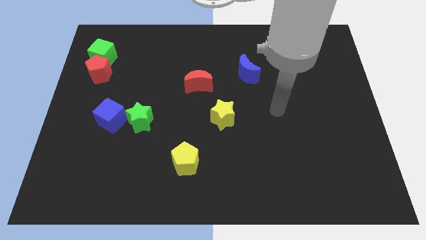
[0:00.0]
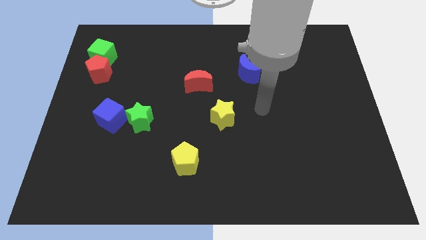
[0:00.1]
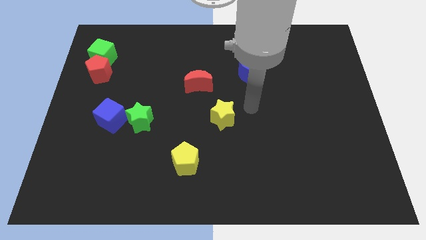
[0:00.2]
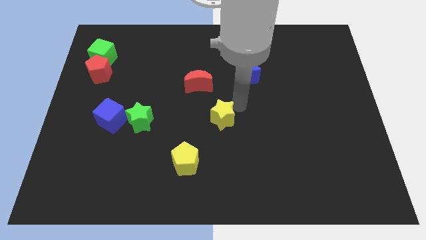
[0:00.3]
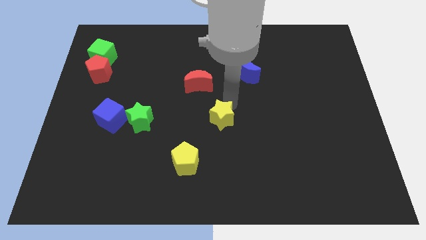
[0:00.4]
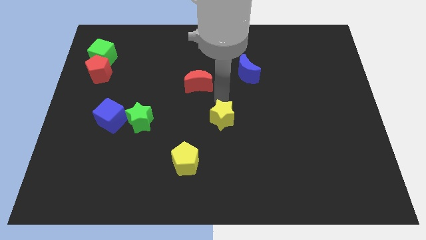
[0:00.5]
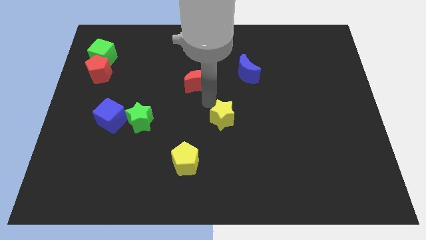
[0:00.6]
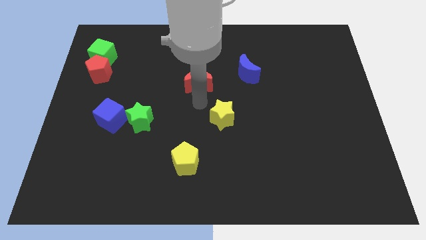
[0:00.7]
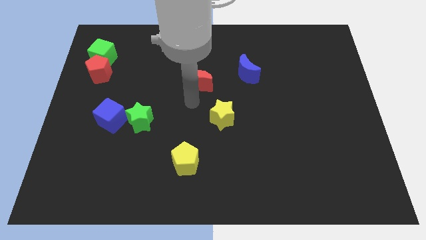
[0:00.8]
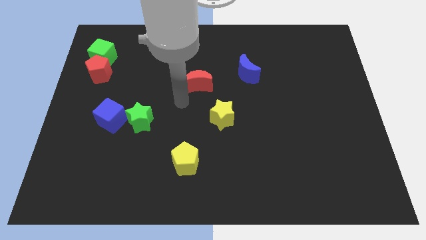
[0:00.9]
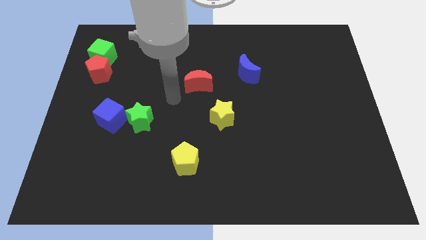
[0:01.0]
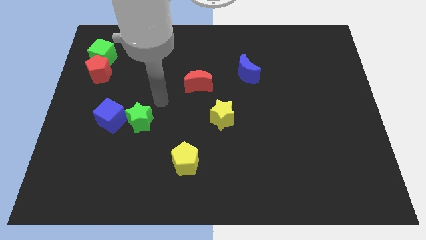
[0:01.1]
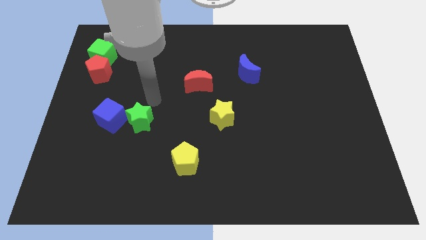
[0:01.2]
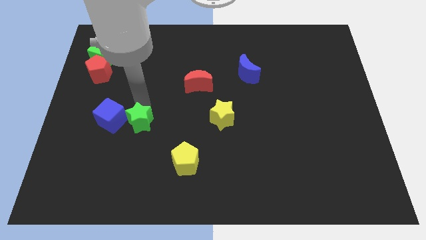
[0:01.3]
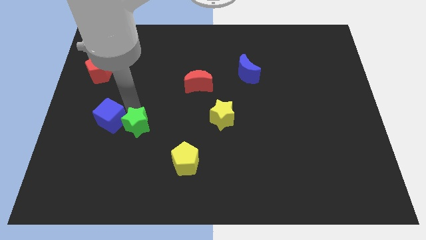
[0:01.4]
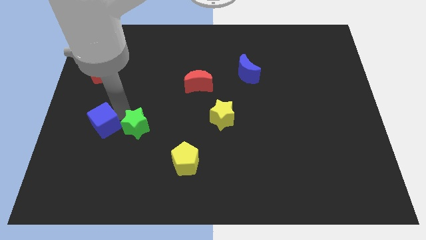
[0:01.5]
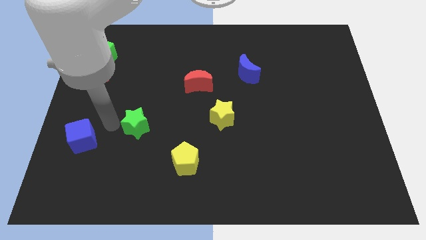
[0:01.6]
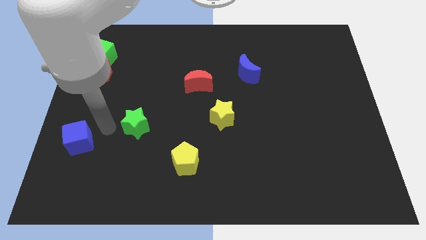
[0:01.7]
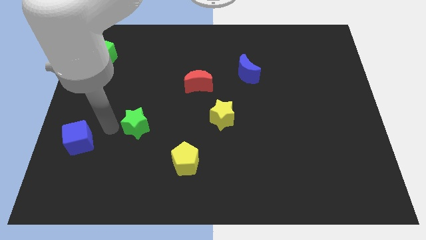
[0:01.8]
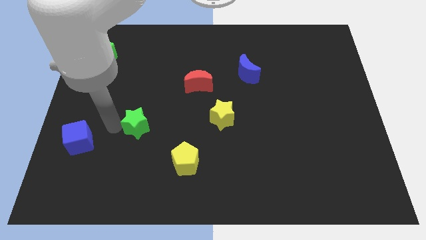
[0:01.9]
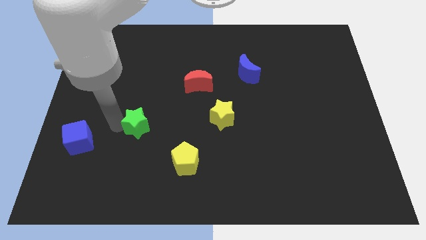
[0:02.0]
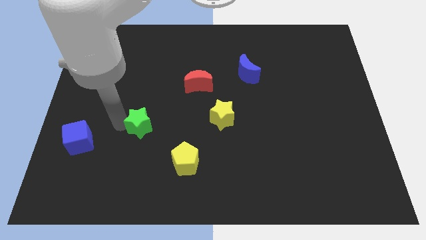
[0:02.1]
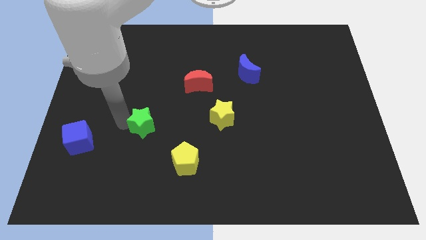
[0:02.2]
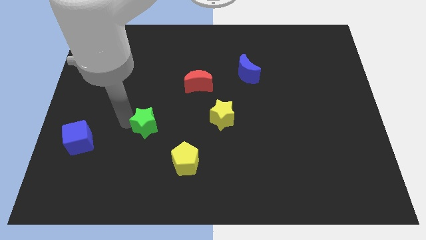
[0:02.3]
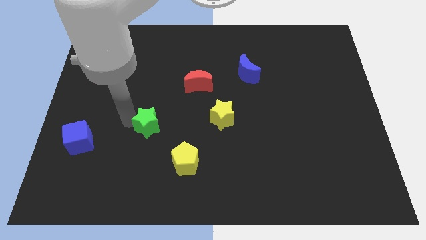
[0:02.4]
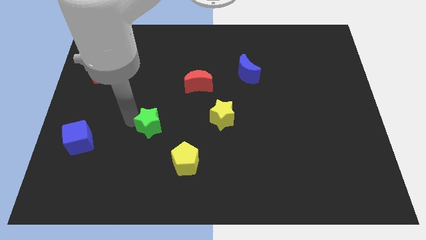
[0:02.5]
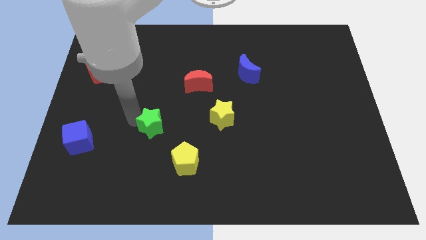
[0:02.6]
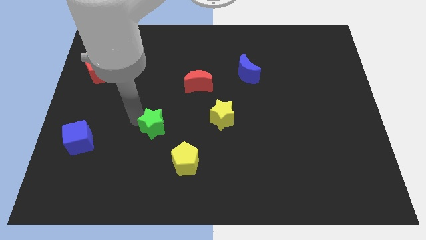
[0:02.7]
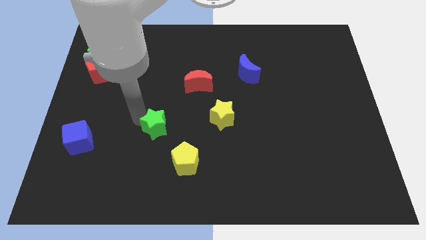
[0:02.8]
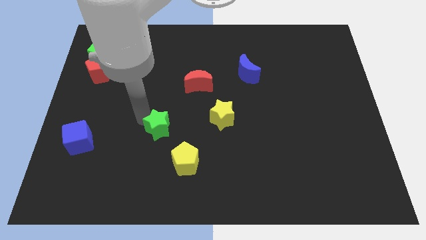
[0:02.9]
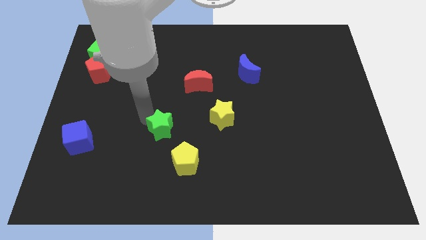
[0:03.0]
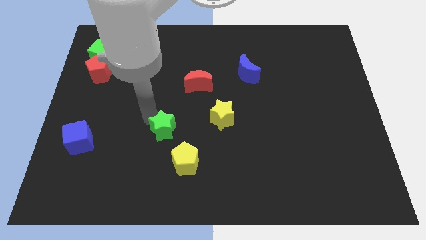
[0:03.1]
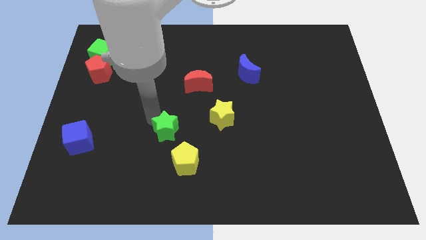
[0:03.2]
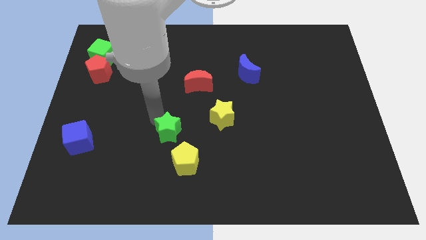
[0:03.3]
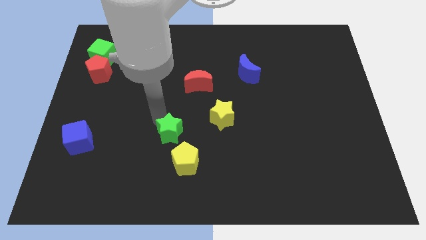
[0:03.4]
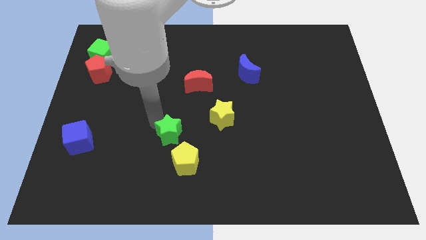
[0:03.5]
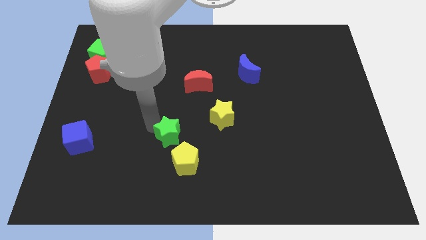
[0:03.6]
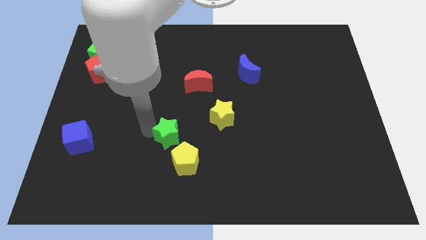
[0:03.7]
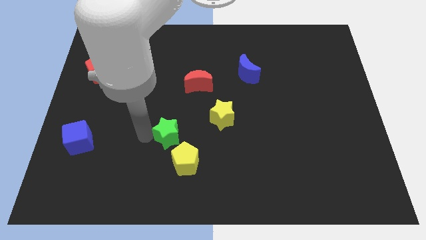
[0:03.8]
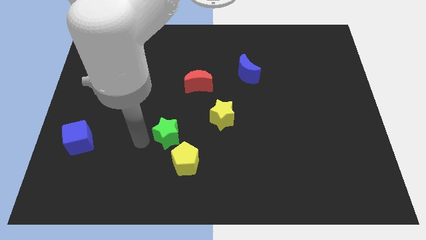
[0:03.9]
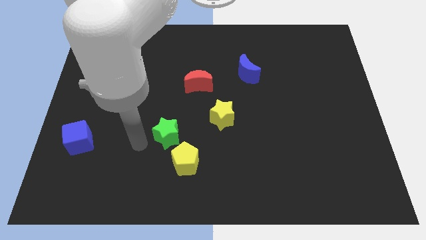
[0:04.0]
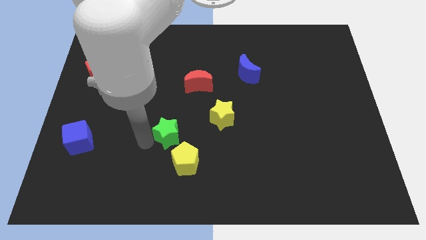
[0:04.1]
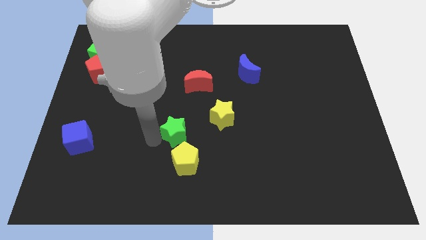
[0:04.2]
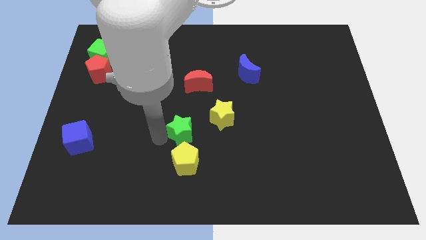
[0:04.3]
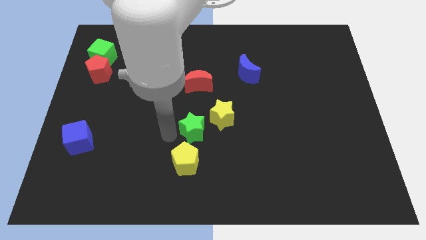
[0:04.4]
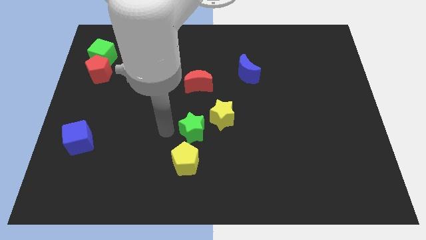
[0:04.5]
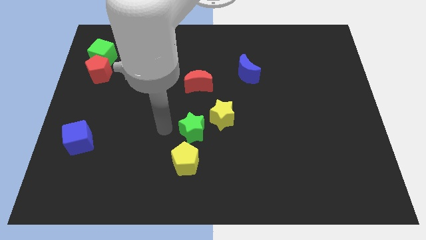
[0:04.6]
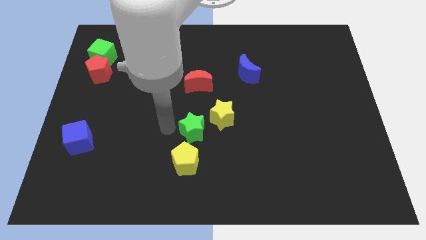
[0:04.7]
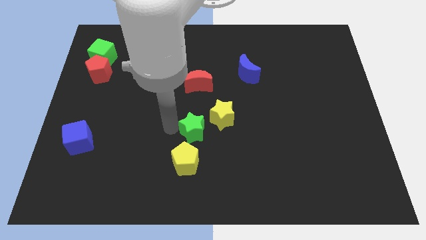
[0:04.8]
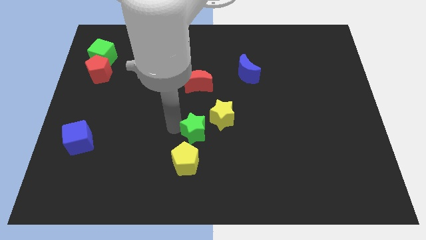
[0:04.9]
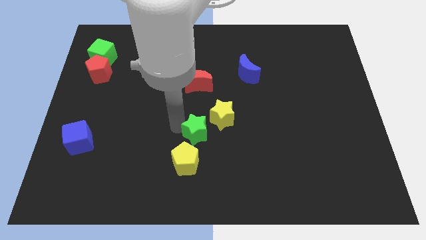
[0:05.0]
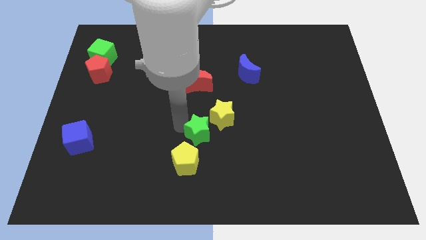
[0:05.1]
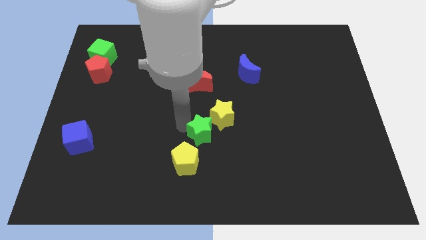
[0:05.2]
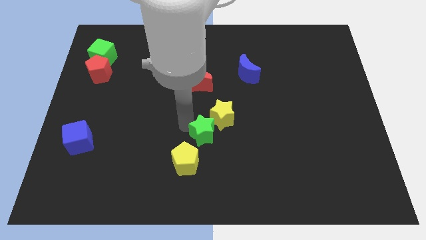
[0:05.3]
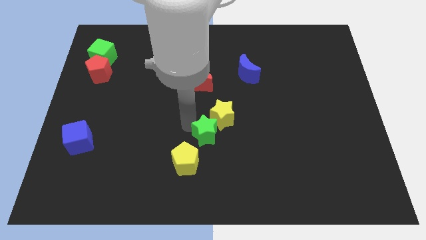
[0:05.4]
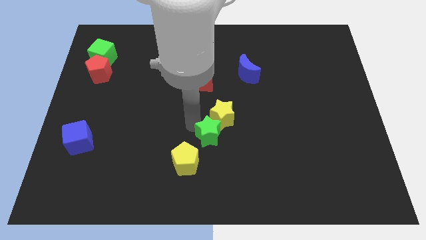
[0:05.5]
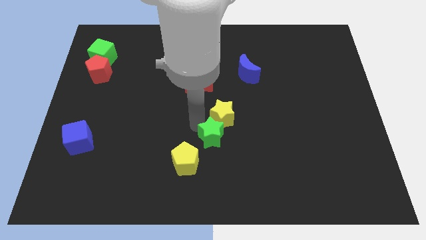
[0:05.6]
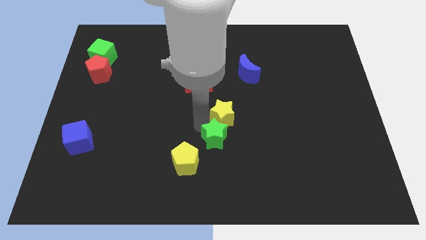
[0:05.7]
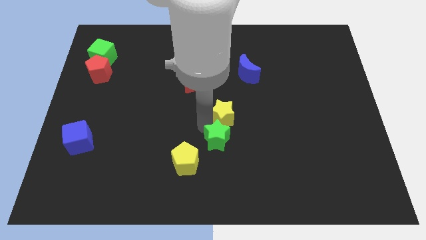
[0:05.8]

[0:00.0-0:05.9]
put the green star to the bottom right of the yellow star

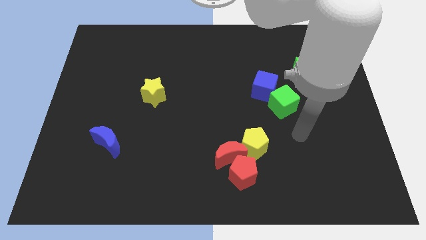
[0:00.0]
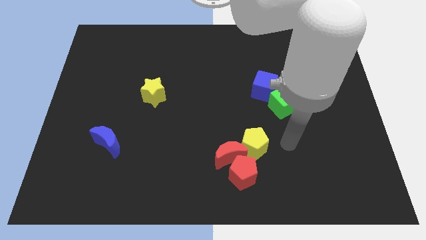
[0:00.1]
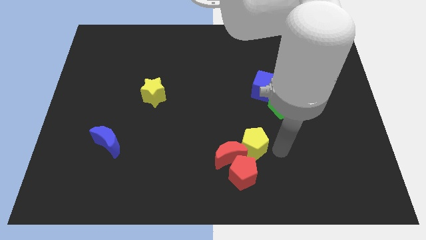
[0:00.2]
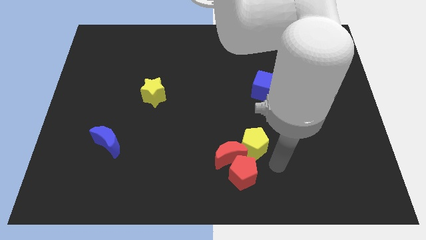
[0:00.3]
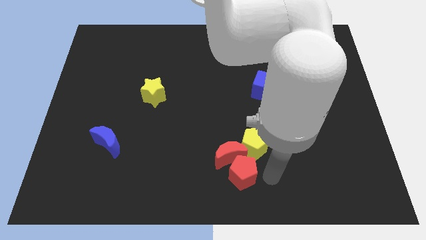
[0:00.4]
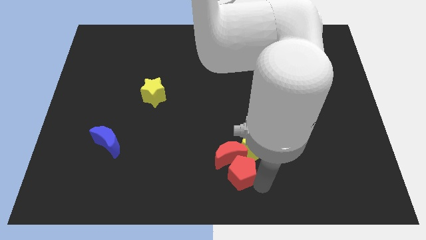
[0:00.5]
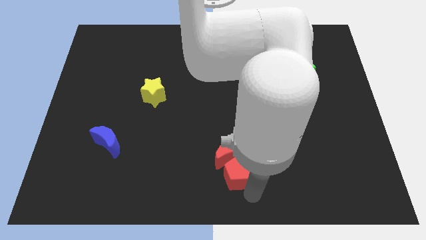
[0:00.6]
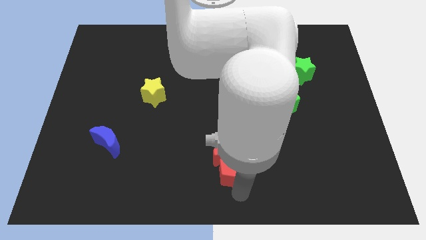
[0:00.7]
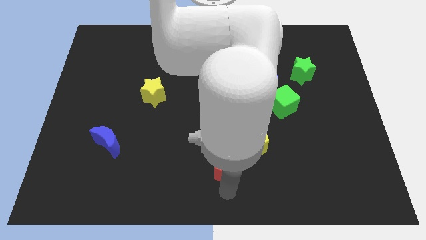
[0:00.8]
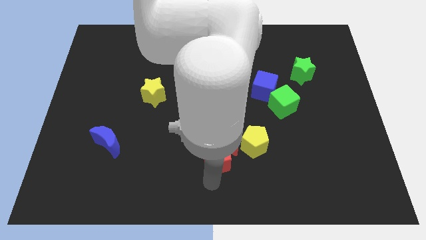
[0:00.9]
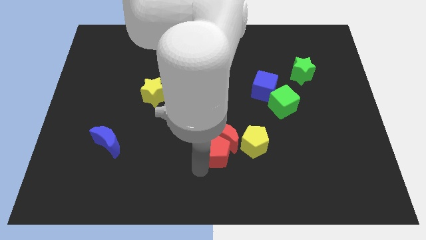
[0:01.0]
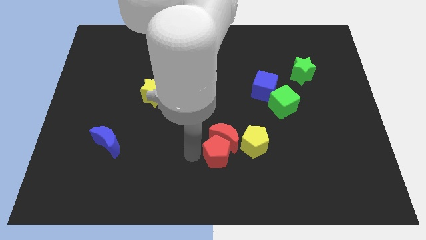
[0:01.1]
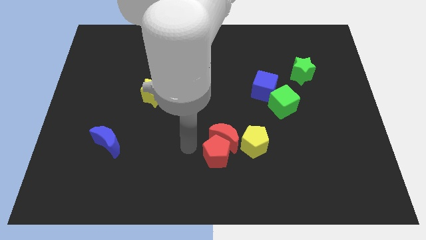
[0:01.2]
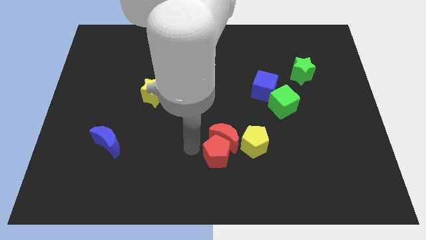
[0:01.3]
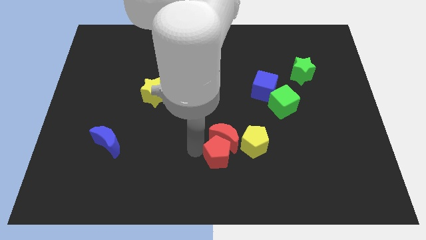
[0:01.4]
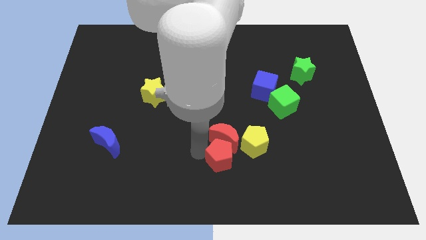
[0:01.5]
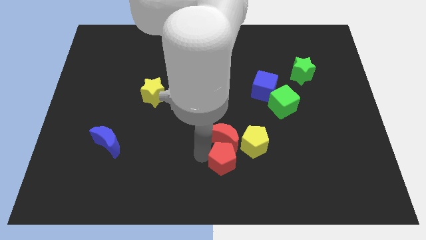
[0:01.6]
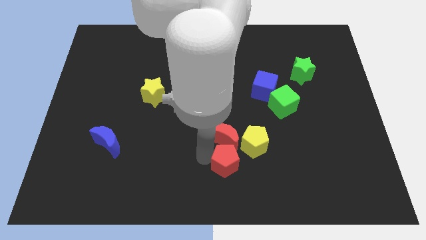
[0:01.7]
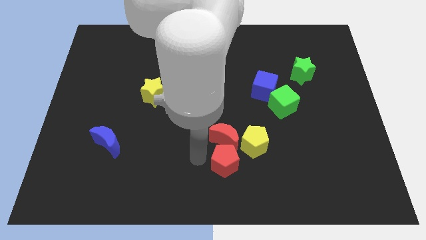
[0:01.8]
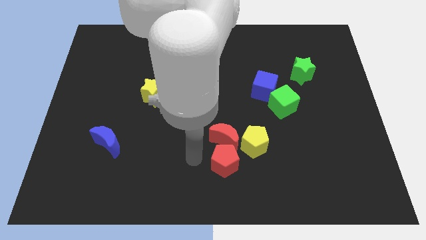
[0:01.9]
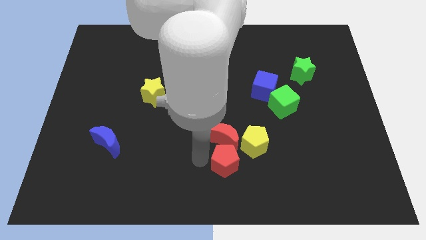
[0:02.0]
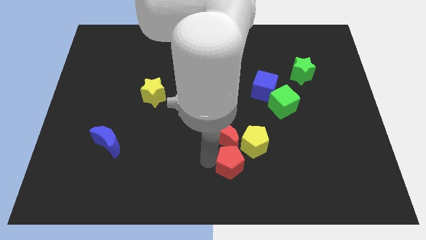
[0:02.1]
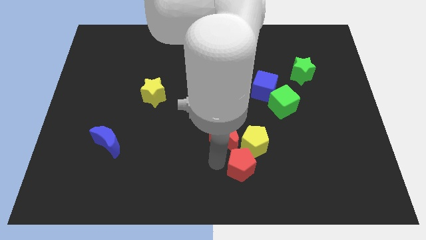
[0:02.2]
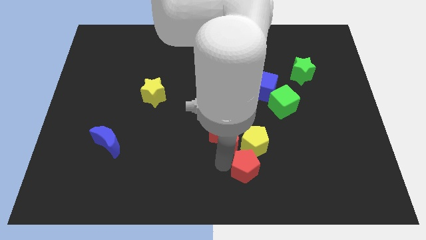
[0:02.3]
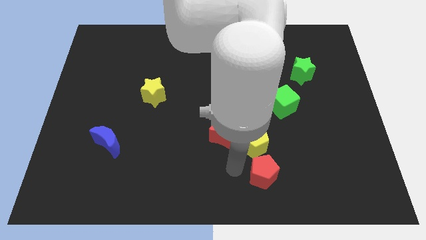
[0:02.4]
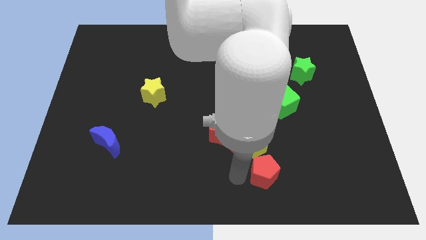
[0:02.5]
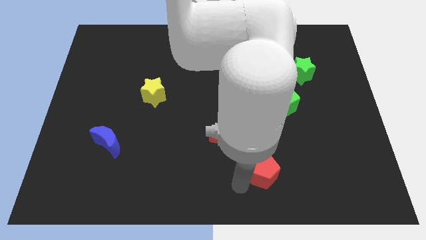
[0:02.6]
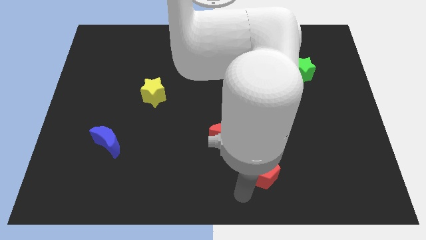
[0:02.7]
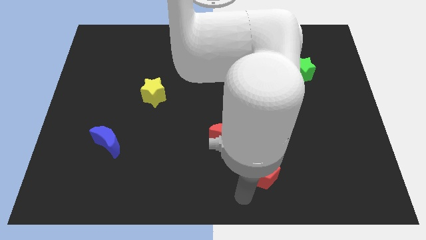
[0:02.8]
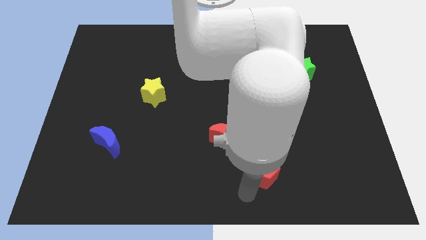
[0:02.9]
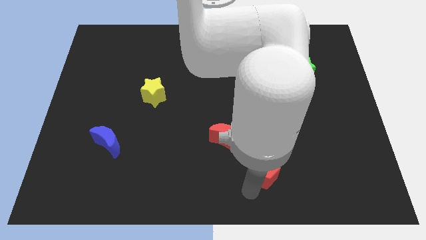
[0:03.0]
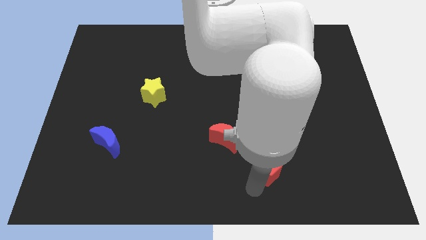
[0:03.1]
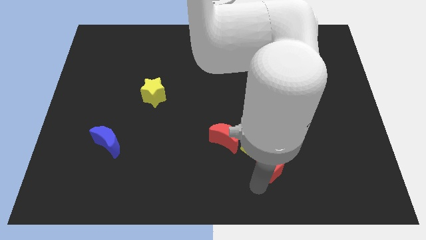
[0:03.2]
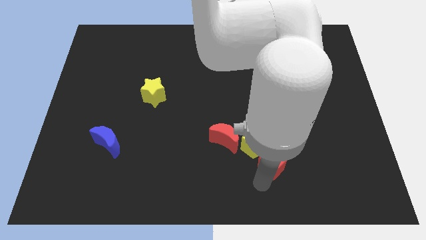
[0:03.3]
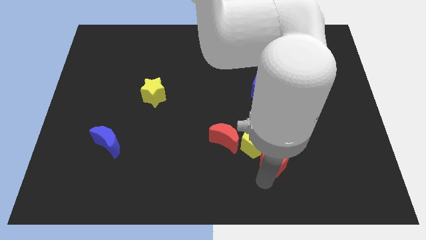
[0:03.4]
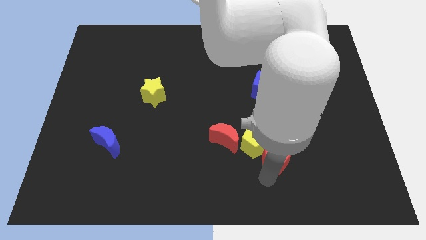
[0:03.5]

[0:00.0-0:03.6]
push the red pentagon below the green cube
